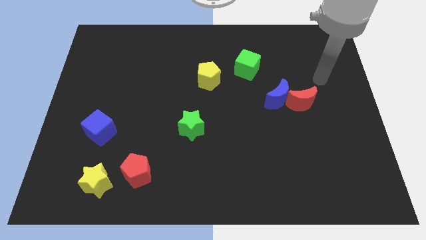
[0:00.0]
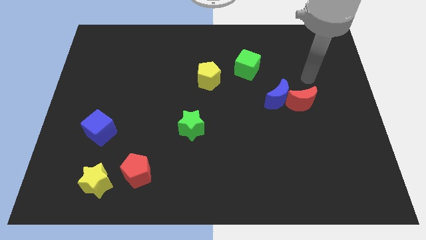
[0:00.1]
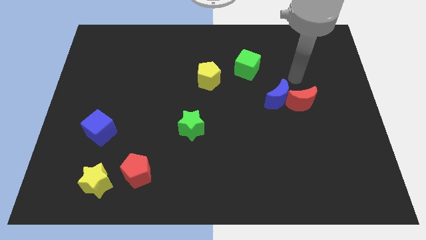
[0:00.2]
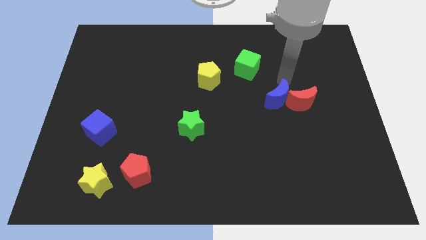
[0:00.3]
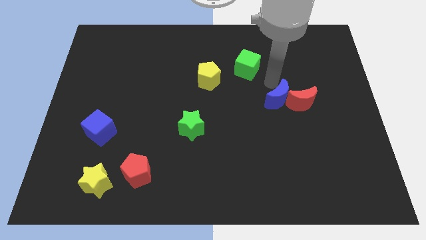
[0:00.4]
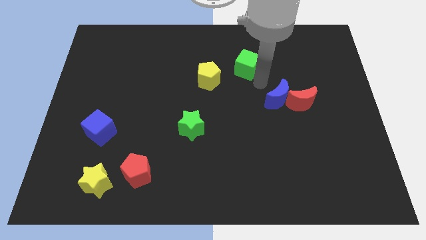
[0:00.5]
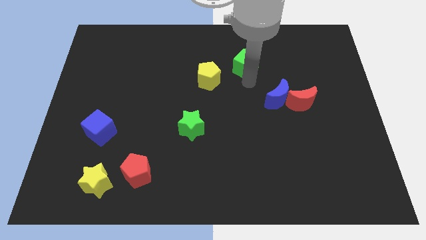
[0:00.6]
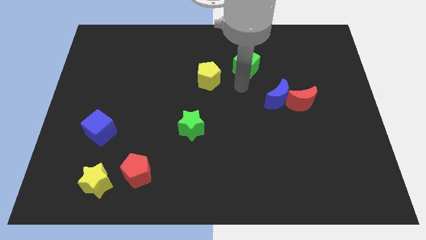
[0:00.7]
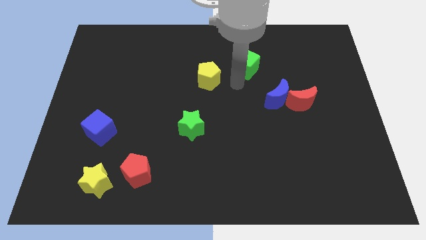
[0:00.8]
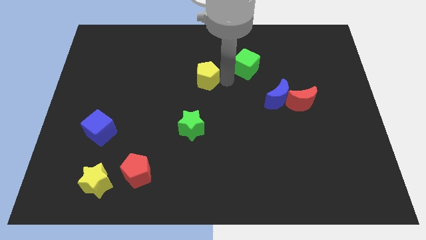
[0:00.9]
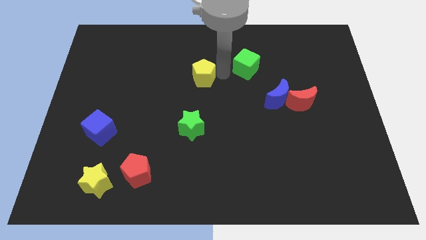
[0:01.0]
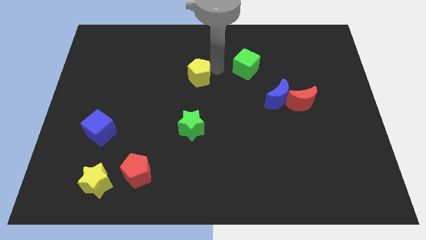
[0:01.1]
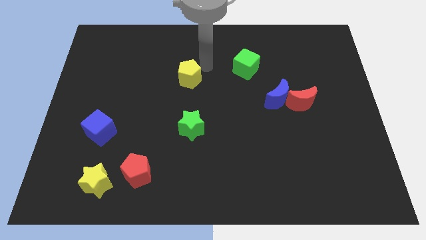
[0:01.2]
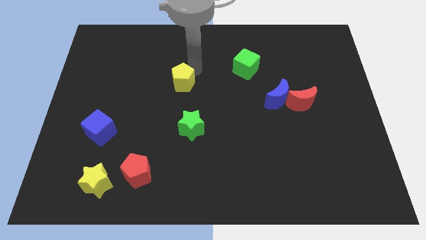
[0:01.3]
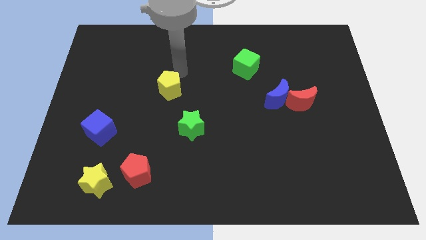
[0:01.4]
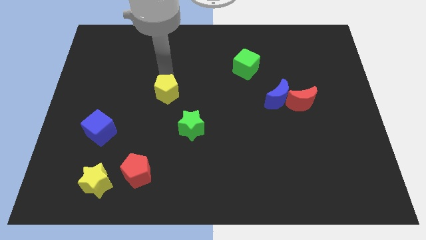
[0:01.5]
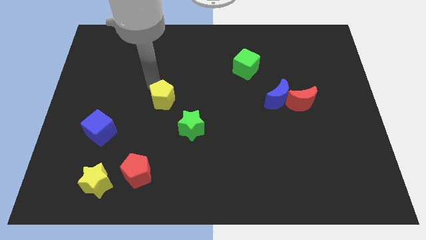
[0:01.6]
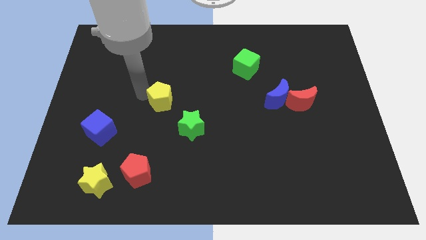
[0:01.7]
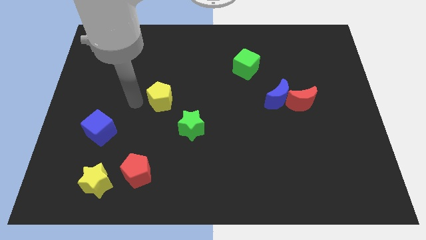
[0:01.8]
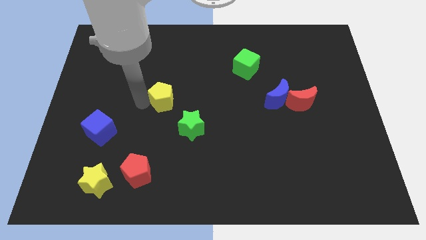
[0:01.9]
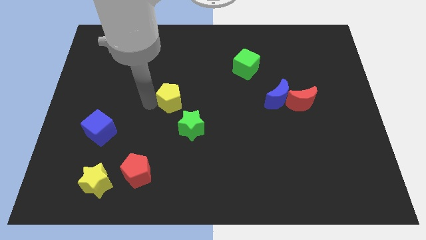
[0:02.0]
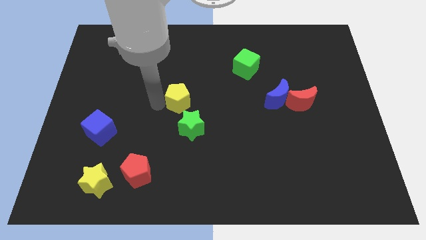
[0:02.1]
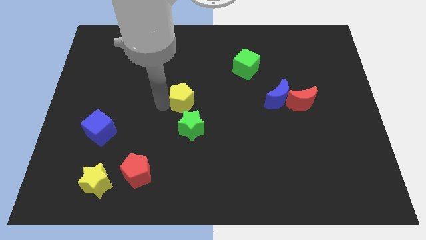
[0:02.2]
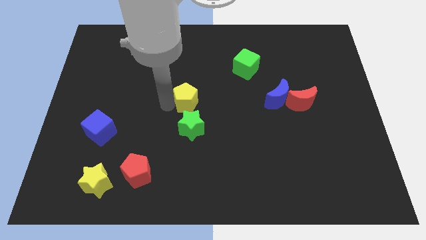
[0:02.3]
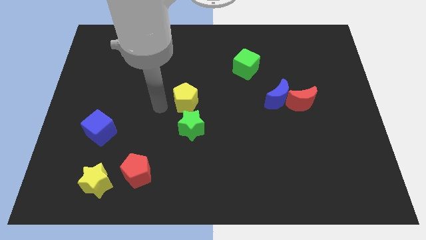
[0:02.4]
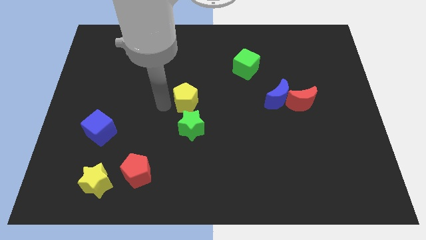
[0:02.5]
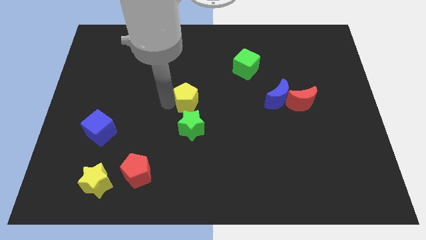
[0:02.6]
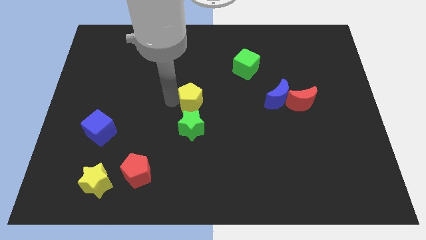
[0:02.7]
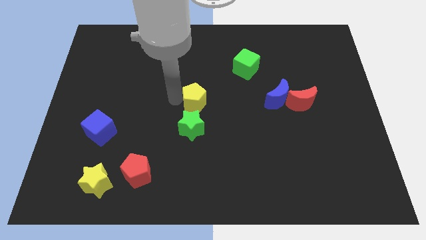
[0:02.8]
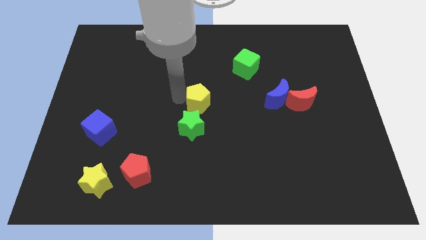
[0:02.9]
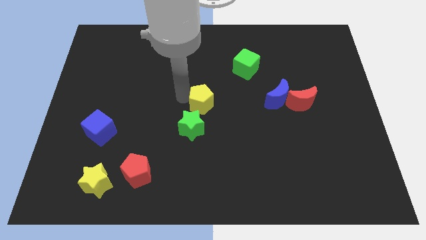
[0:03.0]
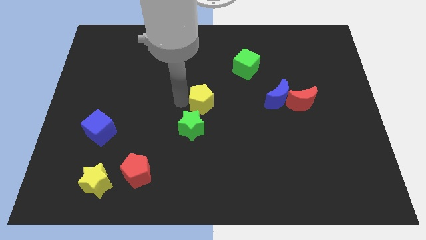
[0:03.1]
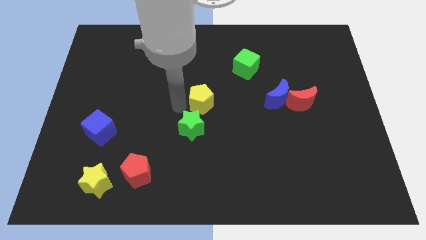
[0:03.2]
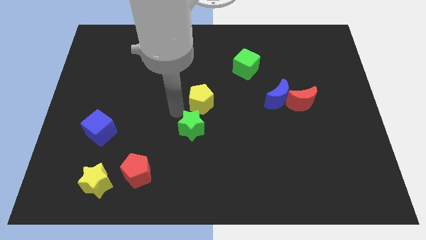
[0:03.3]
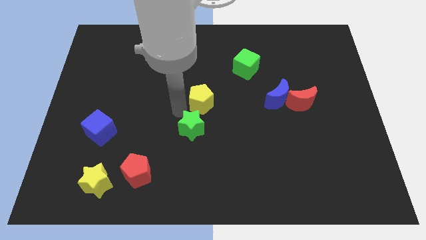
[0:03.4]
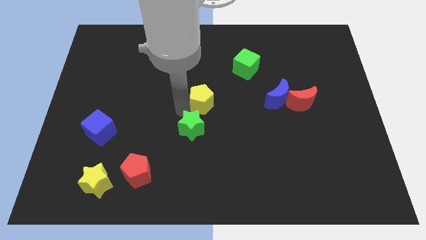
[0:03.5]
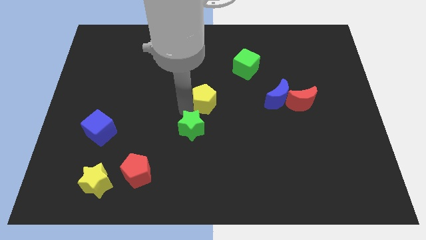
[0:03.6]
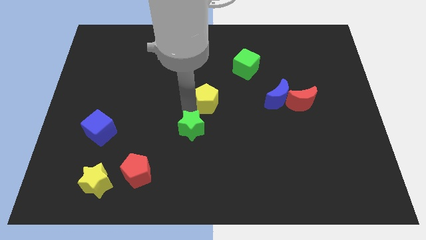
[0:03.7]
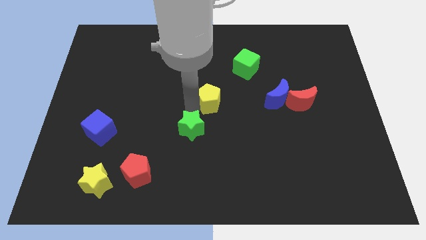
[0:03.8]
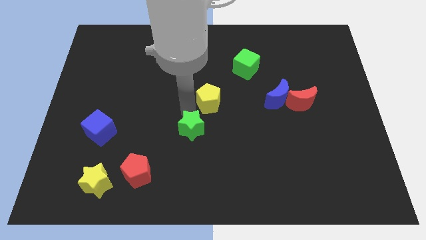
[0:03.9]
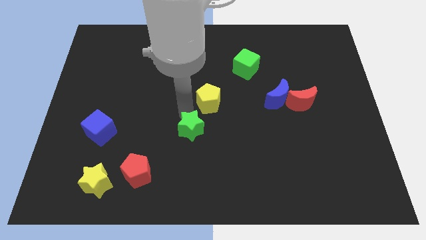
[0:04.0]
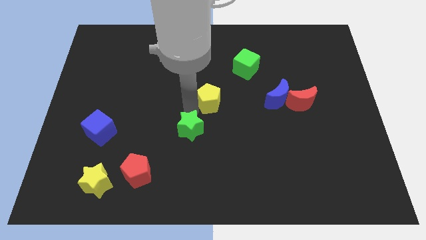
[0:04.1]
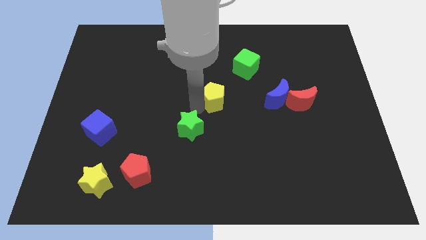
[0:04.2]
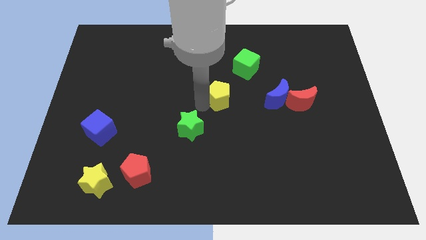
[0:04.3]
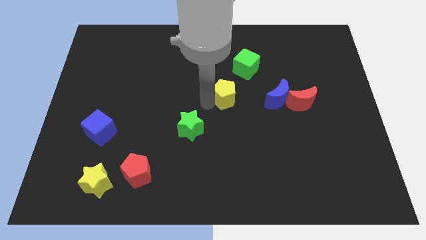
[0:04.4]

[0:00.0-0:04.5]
slide the yellow pentagon a little bit diagonally downwards and to the right

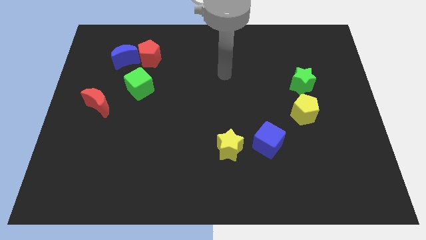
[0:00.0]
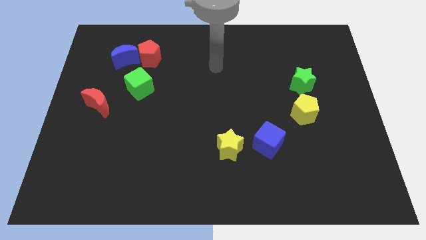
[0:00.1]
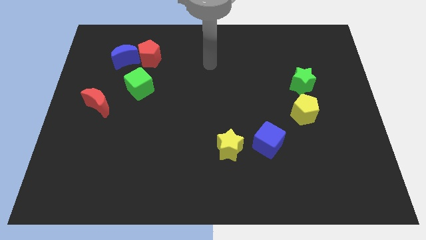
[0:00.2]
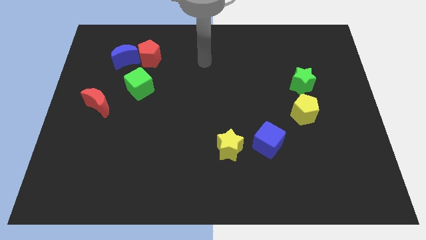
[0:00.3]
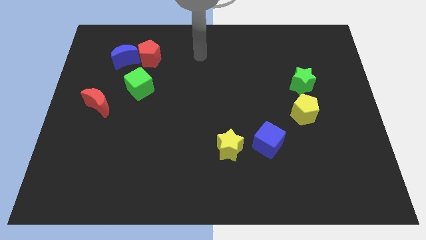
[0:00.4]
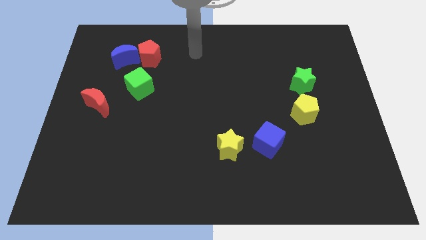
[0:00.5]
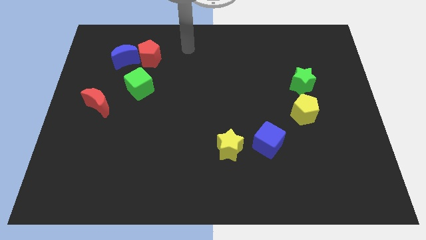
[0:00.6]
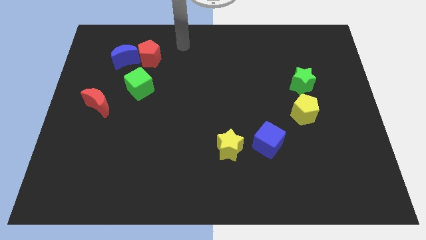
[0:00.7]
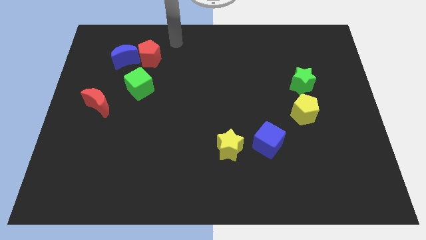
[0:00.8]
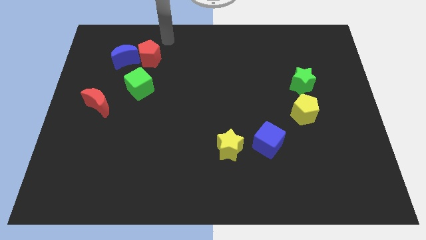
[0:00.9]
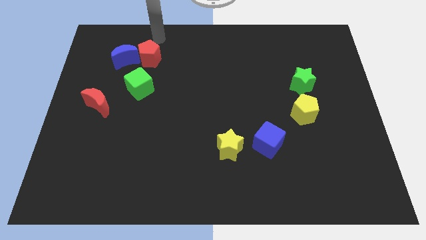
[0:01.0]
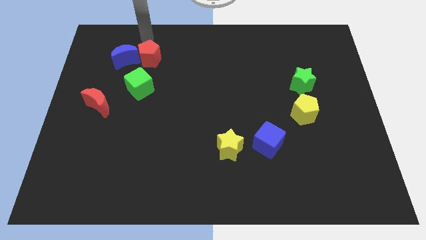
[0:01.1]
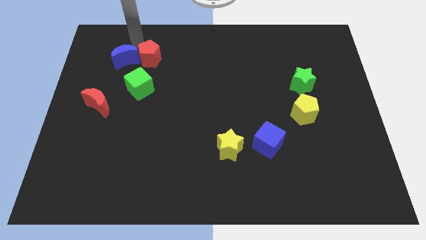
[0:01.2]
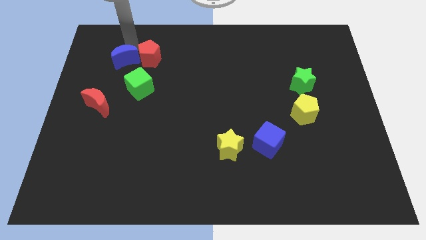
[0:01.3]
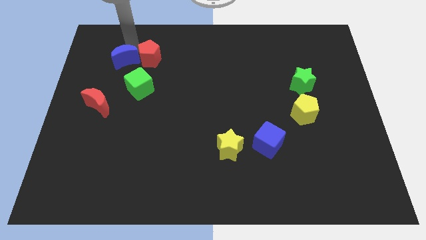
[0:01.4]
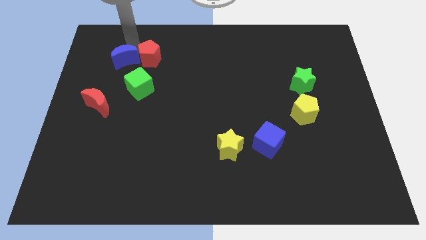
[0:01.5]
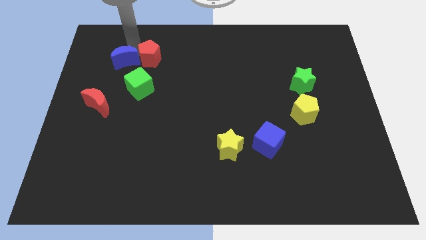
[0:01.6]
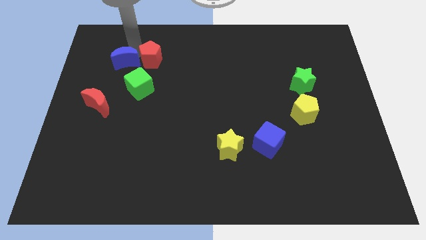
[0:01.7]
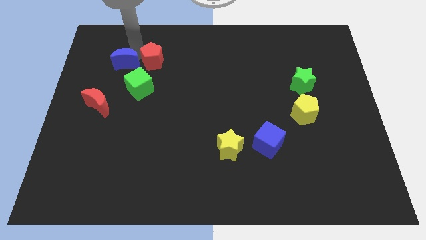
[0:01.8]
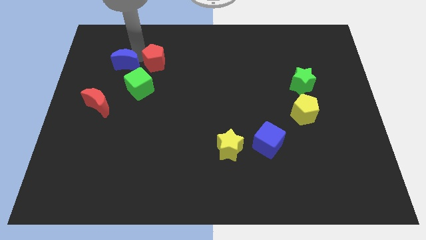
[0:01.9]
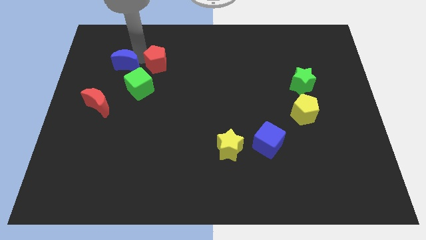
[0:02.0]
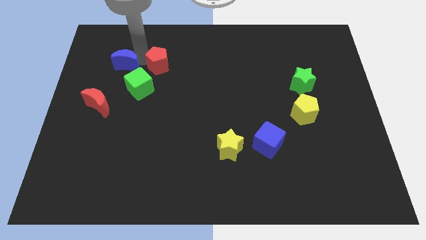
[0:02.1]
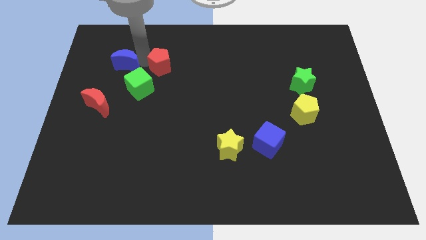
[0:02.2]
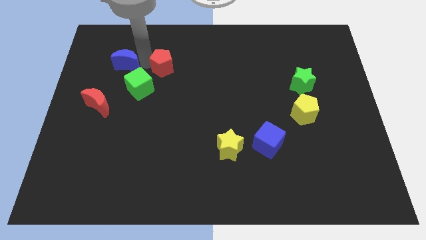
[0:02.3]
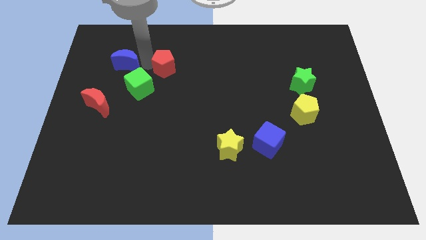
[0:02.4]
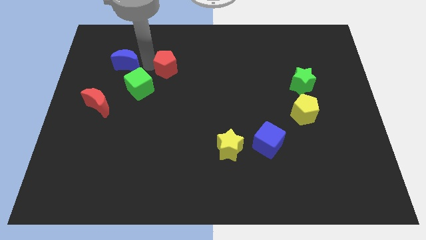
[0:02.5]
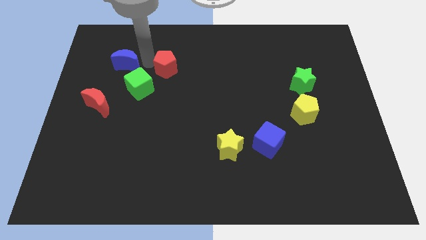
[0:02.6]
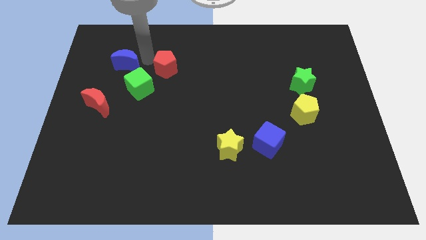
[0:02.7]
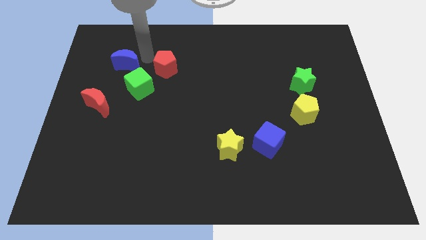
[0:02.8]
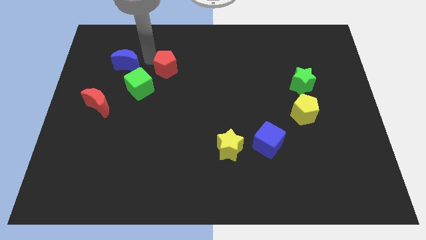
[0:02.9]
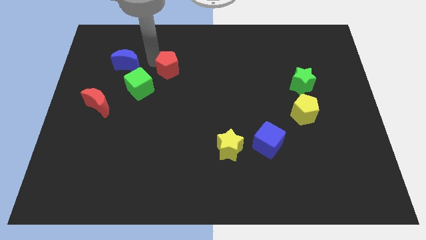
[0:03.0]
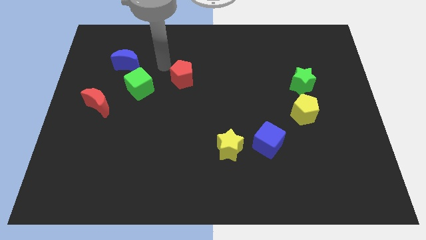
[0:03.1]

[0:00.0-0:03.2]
slide the red pentagon down and then right a little

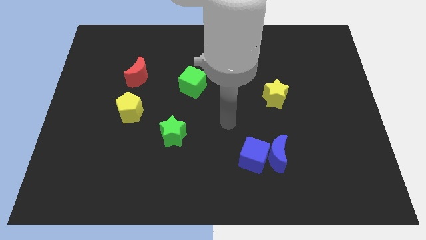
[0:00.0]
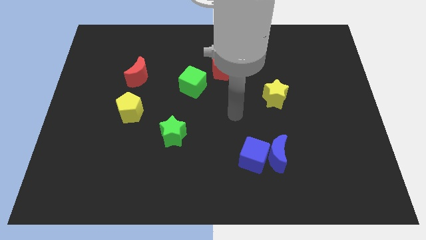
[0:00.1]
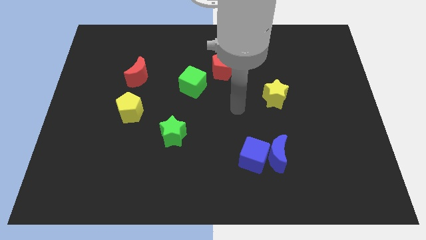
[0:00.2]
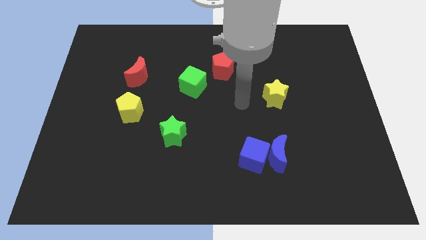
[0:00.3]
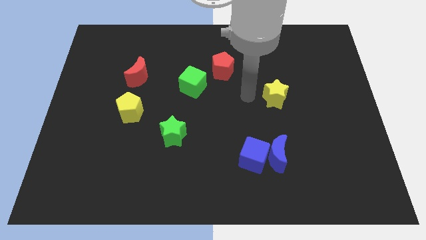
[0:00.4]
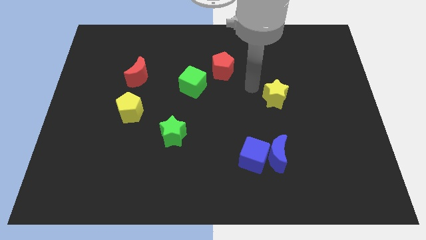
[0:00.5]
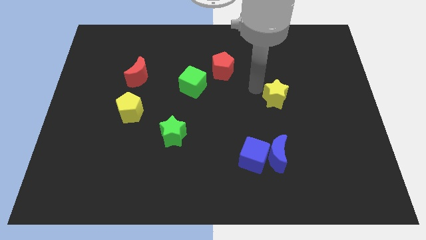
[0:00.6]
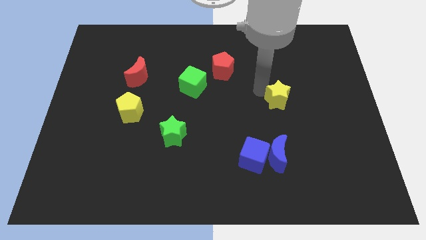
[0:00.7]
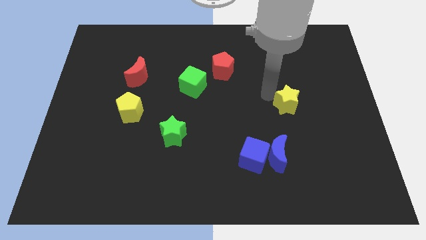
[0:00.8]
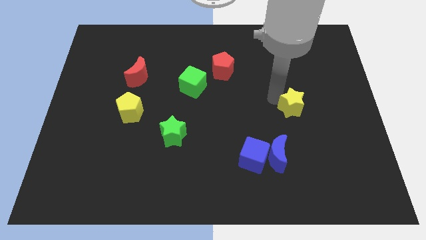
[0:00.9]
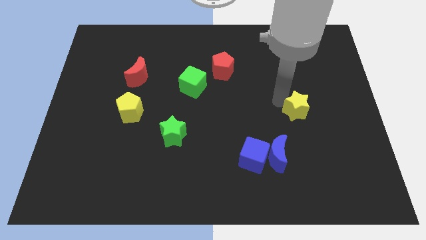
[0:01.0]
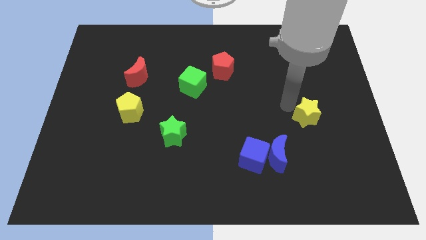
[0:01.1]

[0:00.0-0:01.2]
slide the yellow star a bit down and to the right diagonally
